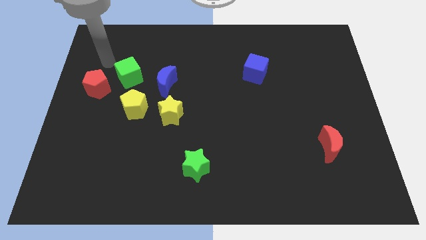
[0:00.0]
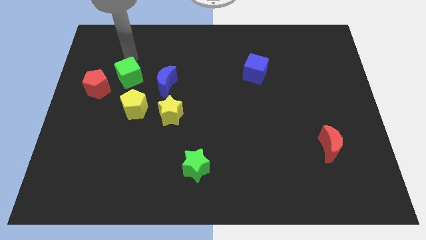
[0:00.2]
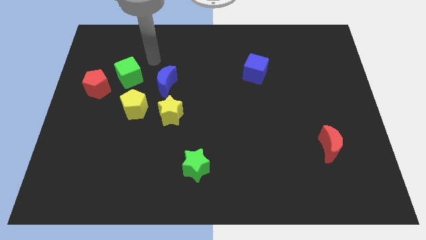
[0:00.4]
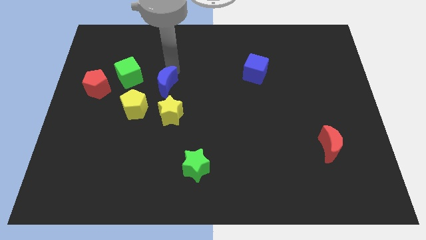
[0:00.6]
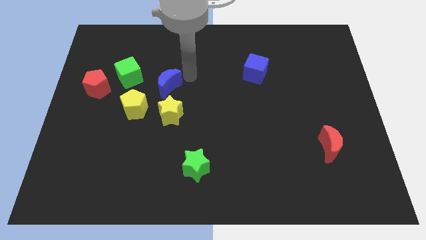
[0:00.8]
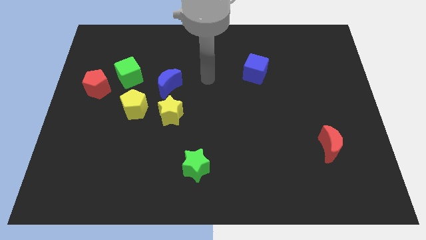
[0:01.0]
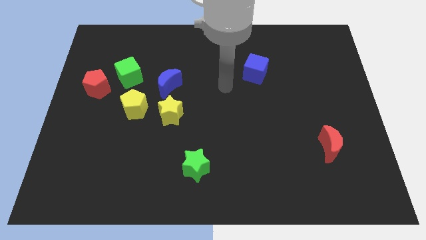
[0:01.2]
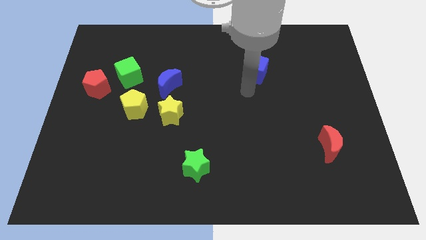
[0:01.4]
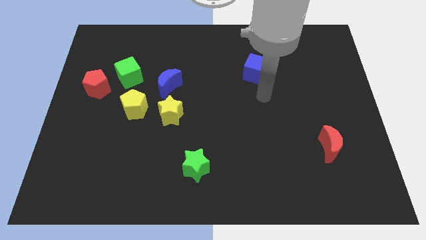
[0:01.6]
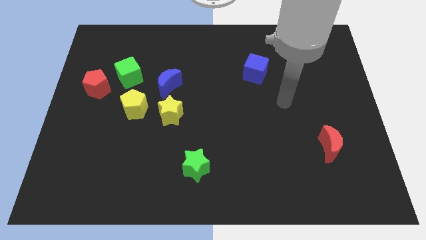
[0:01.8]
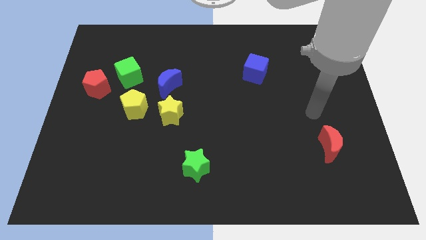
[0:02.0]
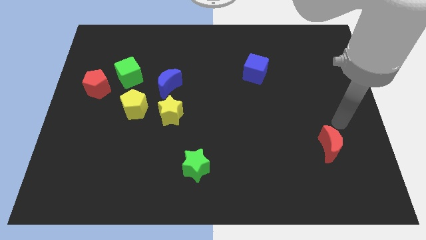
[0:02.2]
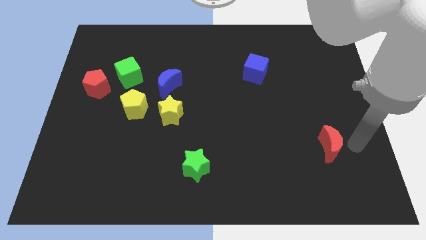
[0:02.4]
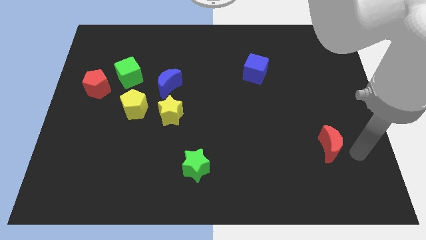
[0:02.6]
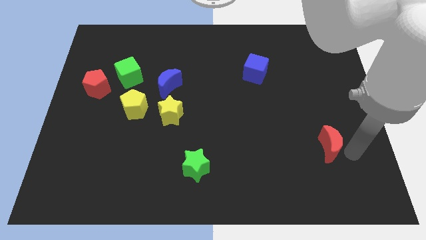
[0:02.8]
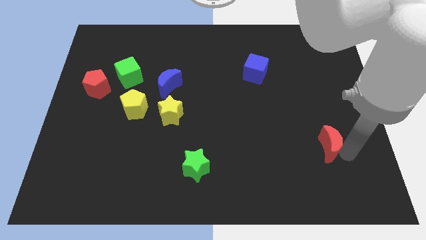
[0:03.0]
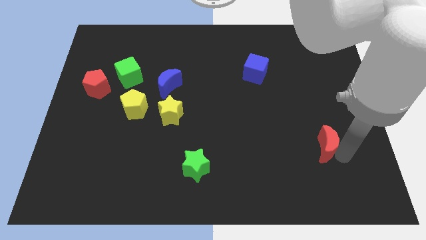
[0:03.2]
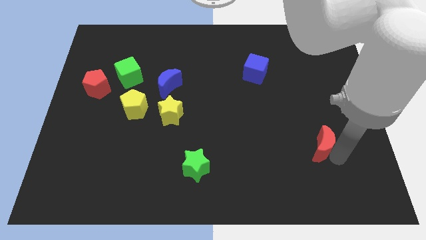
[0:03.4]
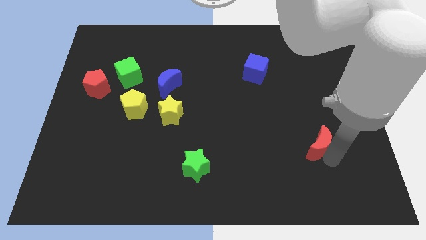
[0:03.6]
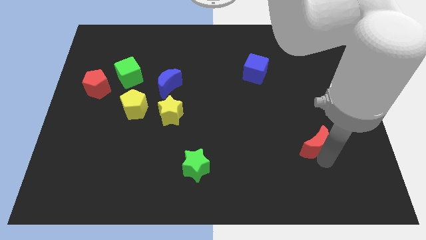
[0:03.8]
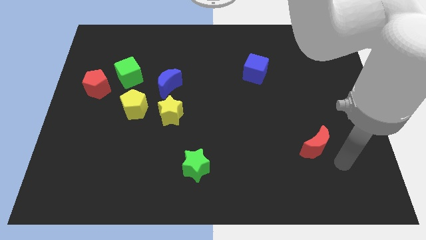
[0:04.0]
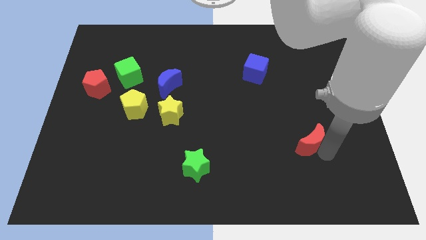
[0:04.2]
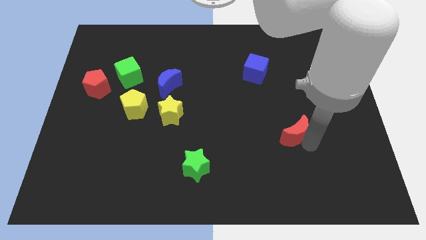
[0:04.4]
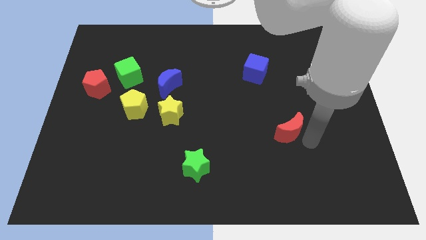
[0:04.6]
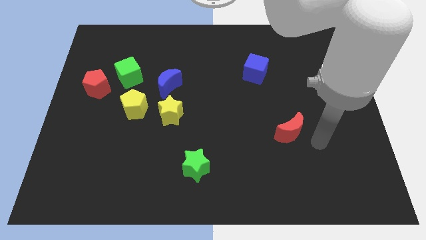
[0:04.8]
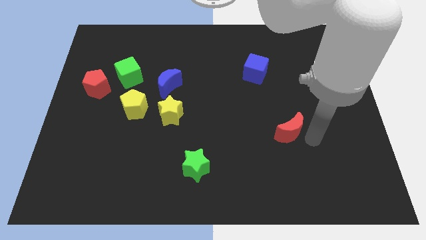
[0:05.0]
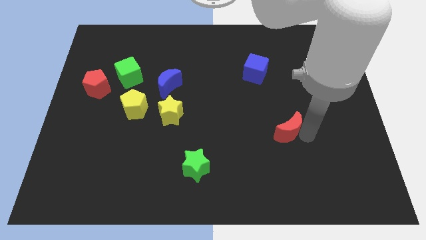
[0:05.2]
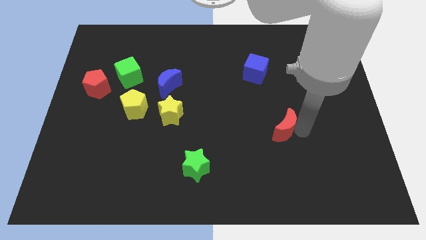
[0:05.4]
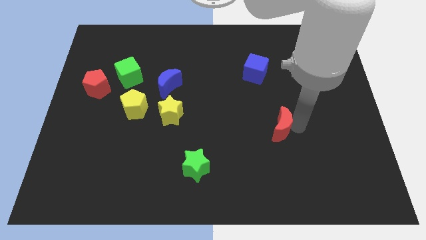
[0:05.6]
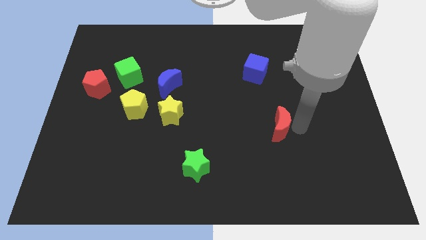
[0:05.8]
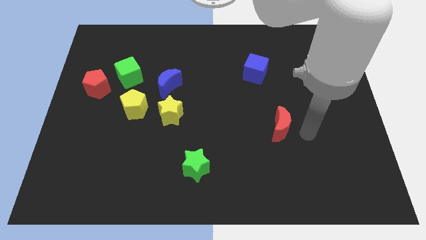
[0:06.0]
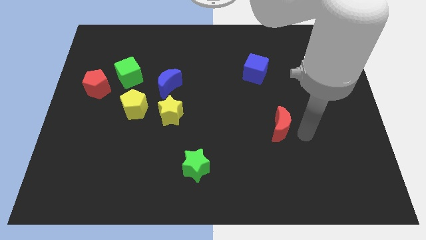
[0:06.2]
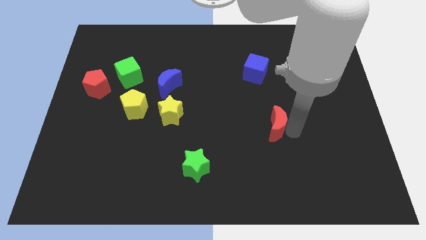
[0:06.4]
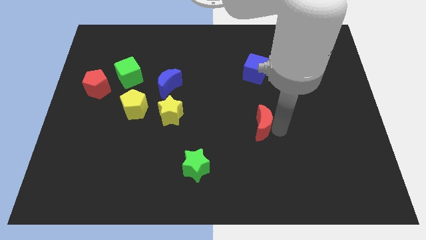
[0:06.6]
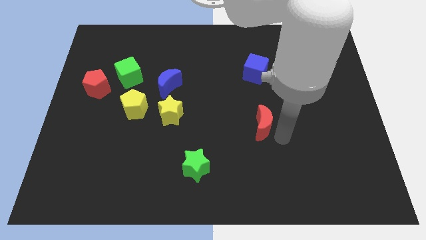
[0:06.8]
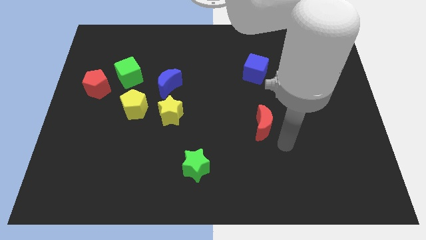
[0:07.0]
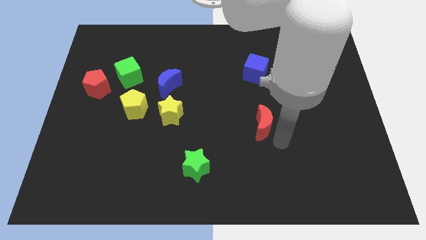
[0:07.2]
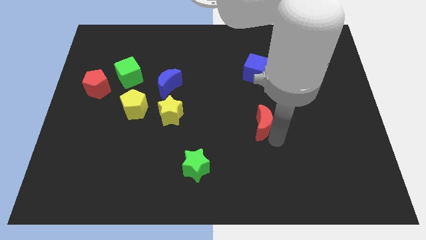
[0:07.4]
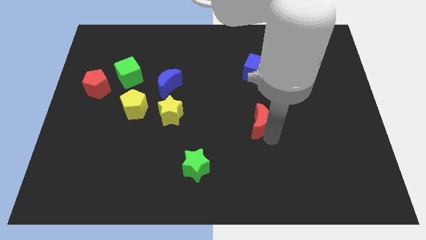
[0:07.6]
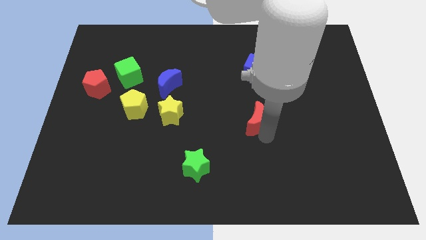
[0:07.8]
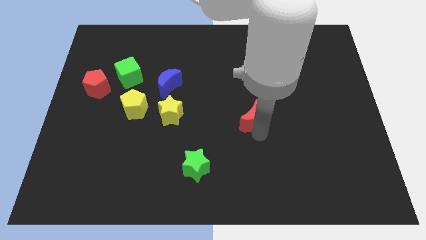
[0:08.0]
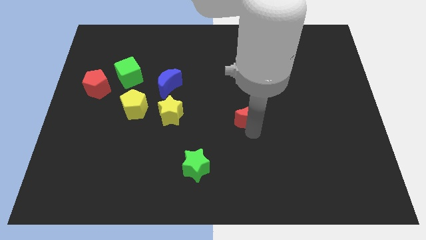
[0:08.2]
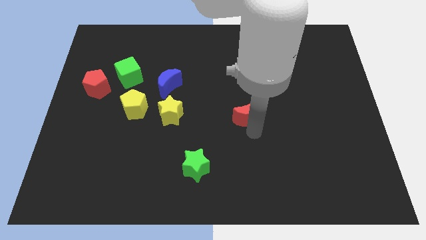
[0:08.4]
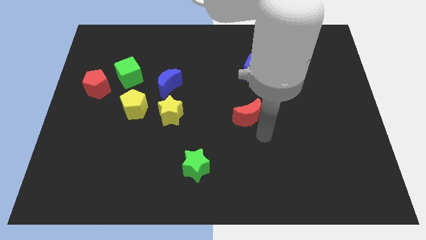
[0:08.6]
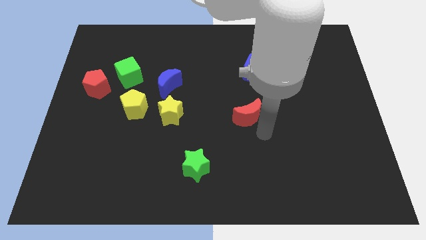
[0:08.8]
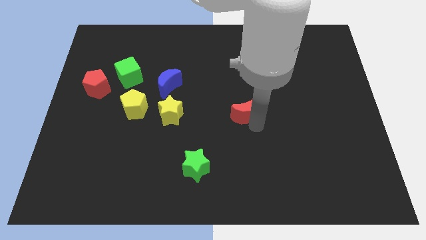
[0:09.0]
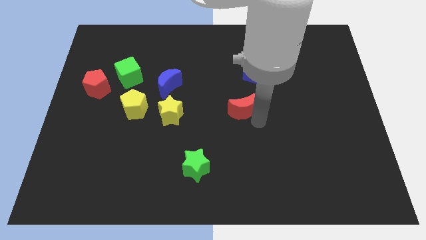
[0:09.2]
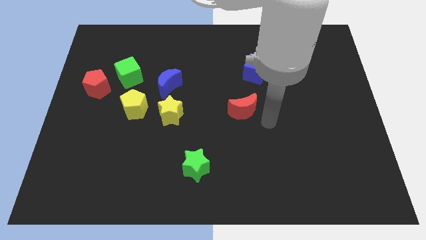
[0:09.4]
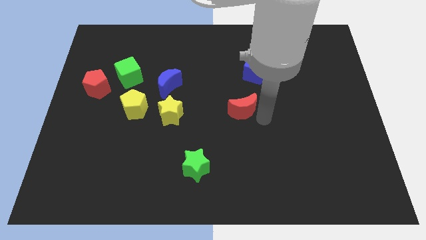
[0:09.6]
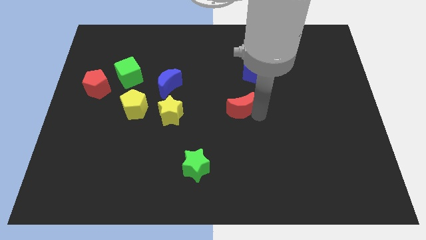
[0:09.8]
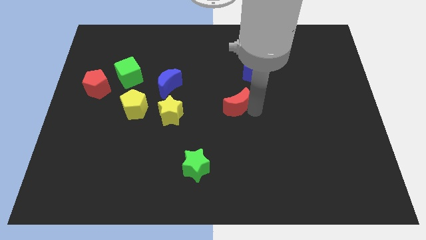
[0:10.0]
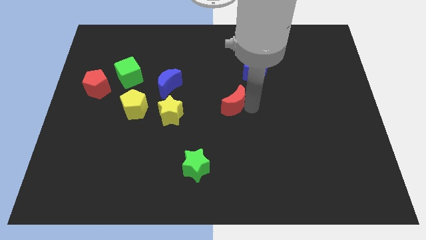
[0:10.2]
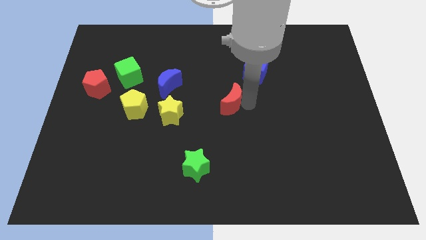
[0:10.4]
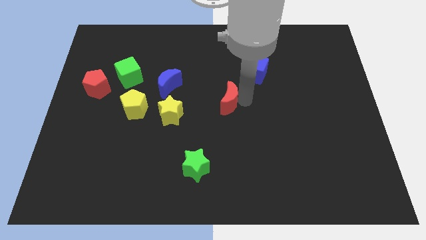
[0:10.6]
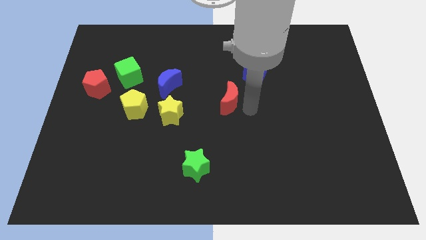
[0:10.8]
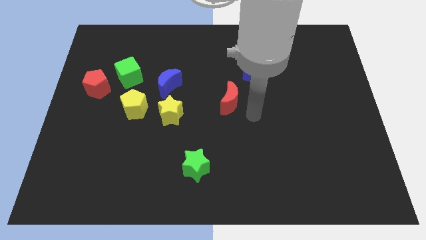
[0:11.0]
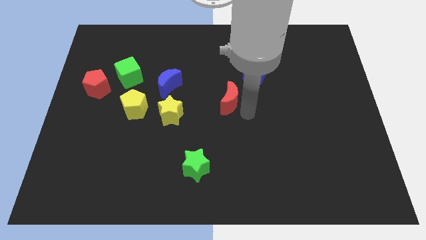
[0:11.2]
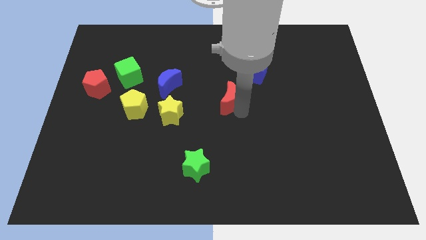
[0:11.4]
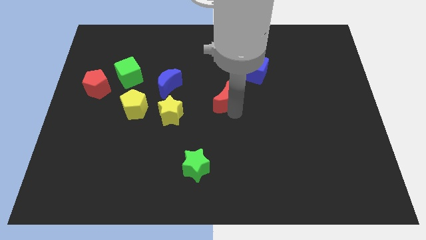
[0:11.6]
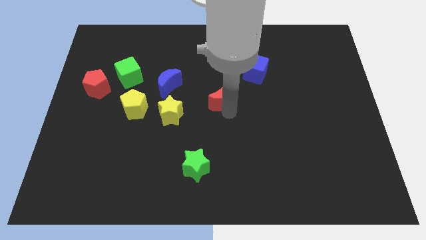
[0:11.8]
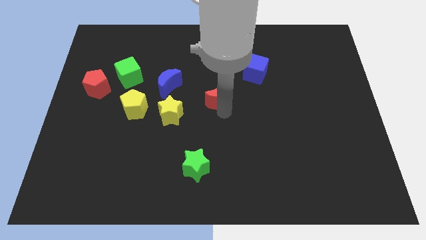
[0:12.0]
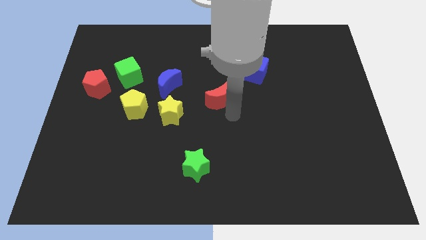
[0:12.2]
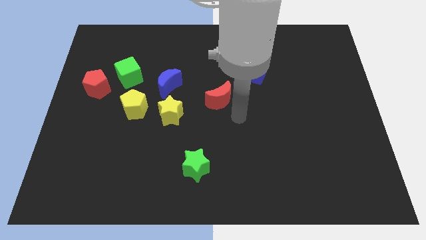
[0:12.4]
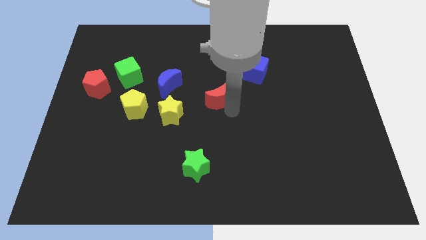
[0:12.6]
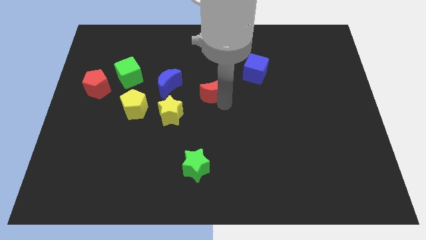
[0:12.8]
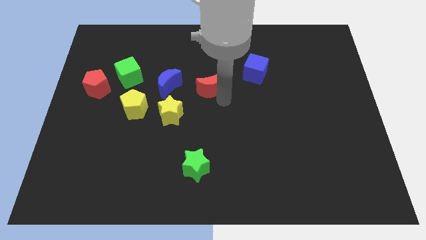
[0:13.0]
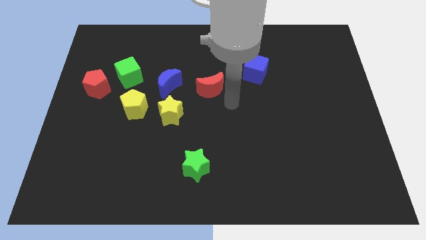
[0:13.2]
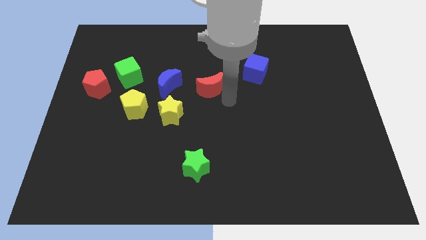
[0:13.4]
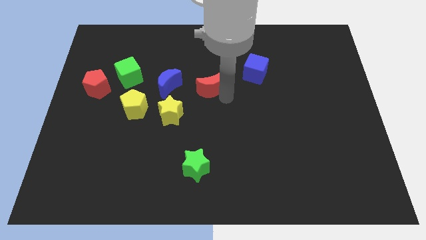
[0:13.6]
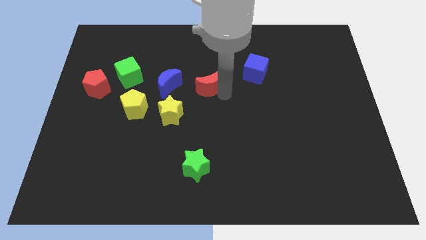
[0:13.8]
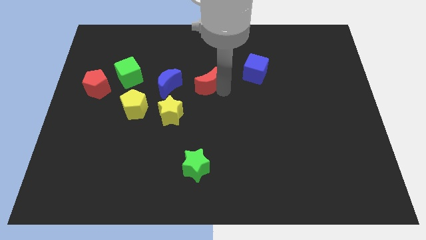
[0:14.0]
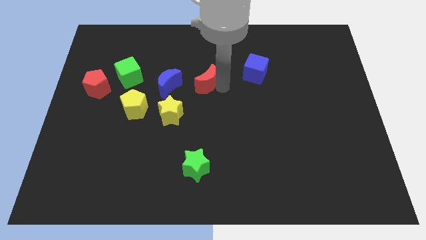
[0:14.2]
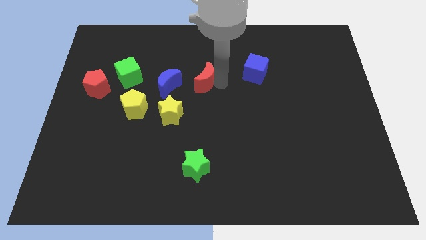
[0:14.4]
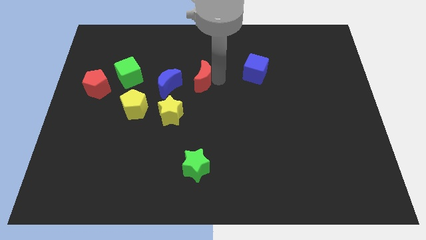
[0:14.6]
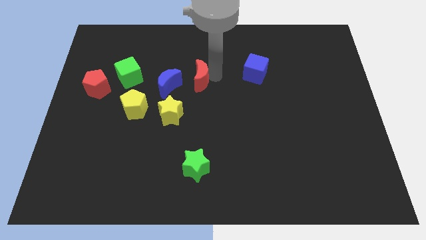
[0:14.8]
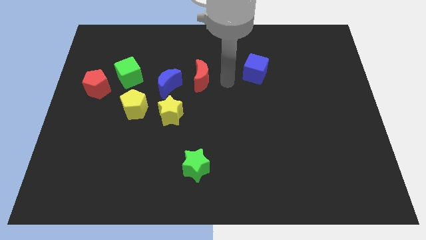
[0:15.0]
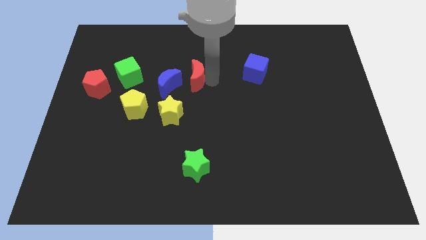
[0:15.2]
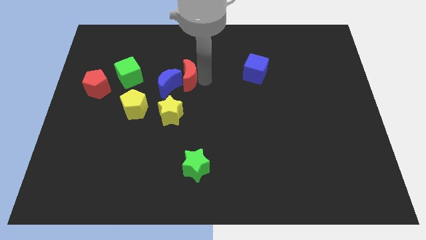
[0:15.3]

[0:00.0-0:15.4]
push the red moon to the right side of the green cube
